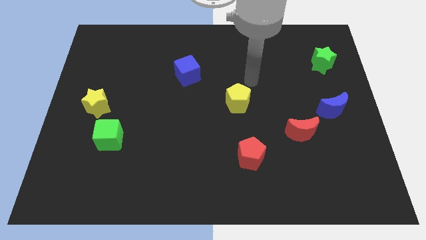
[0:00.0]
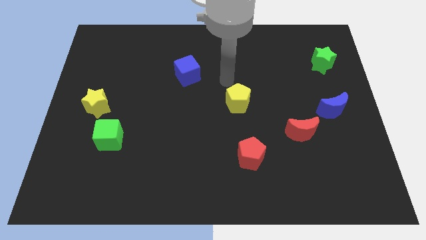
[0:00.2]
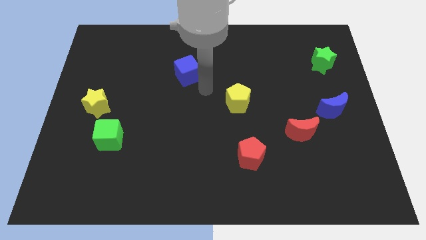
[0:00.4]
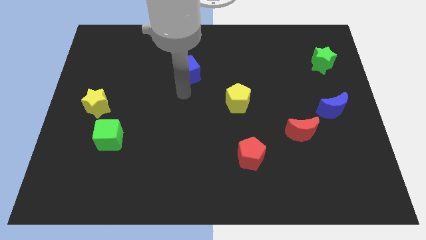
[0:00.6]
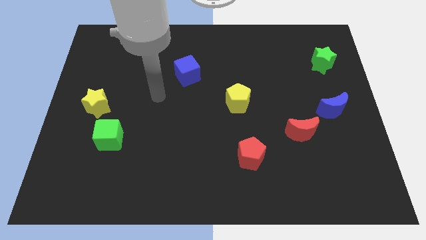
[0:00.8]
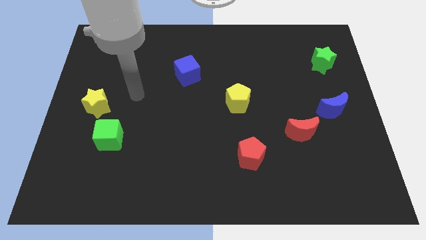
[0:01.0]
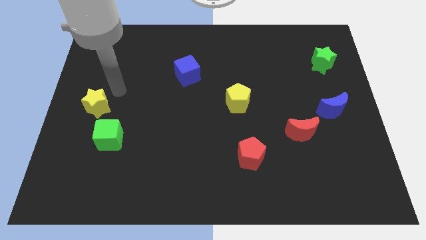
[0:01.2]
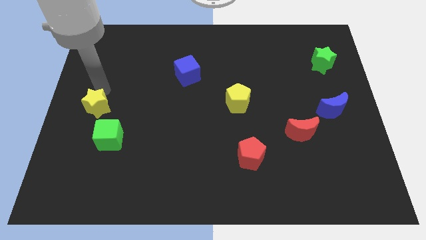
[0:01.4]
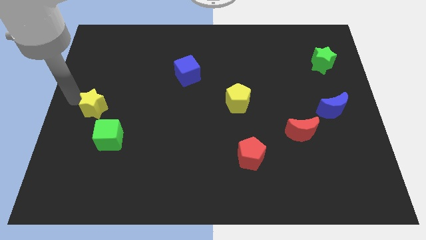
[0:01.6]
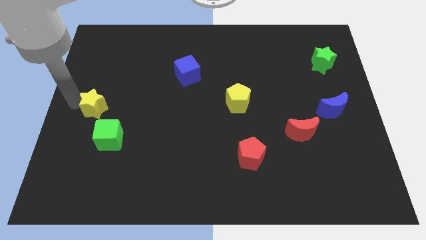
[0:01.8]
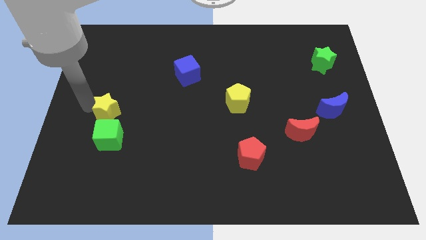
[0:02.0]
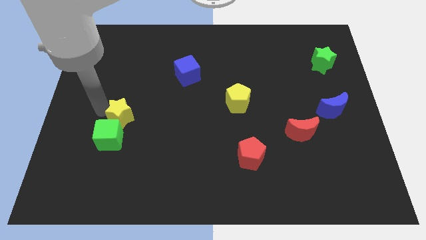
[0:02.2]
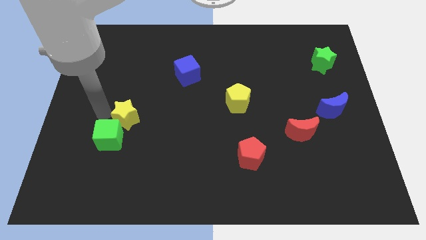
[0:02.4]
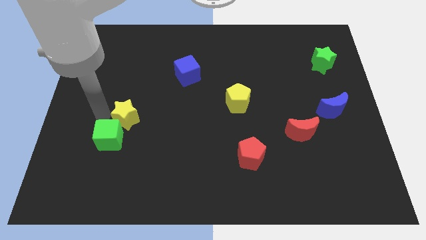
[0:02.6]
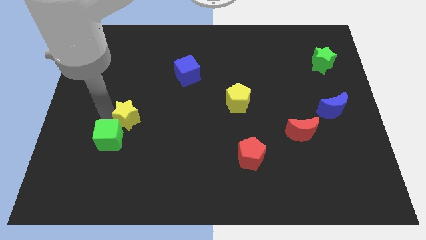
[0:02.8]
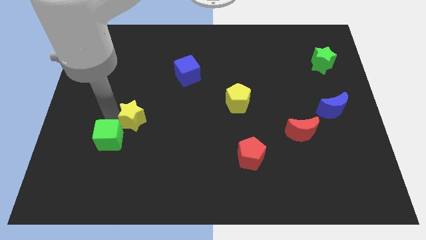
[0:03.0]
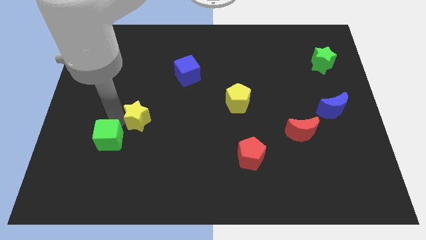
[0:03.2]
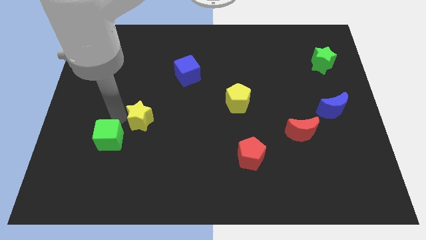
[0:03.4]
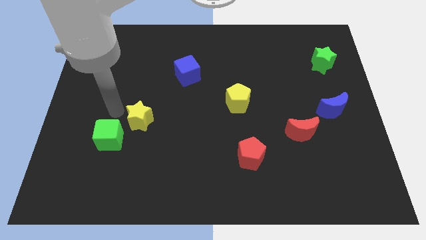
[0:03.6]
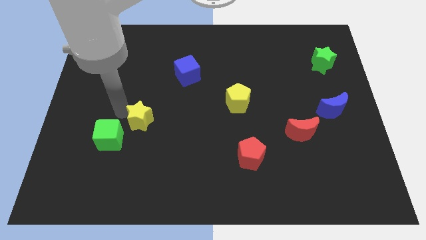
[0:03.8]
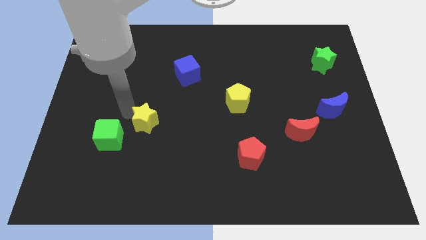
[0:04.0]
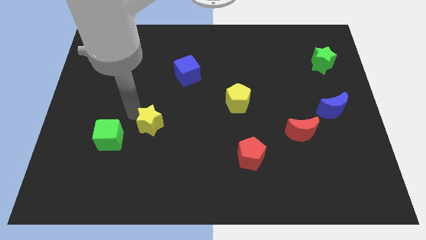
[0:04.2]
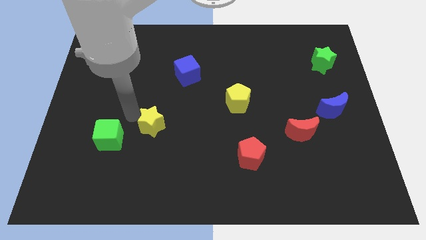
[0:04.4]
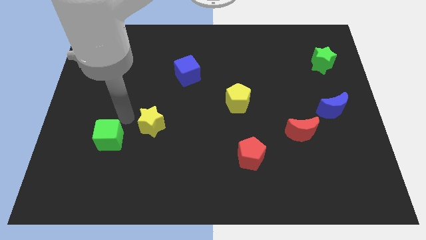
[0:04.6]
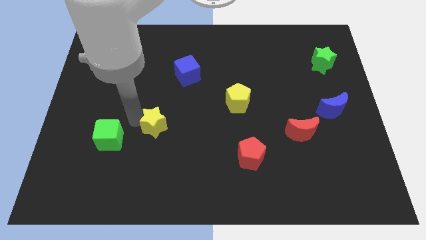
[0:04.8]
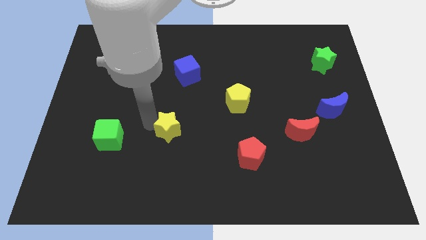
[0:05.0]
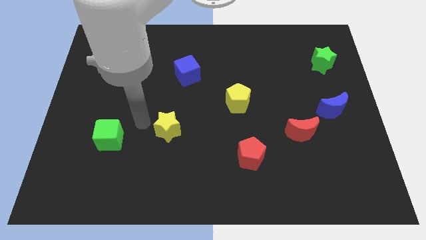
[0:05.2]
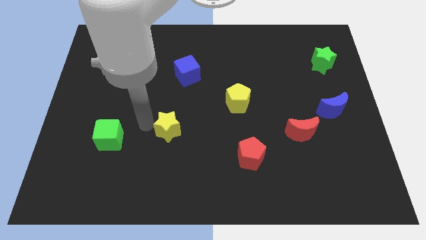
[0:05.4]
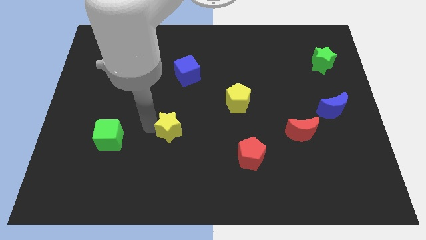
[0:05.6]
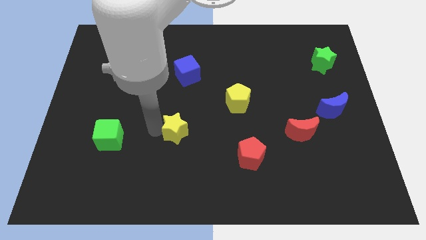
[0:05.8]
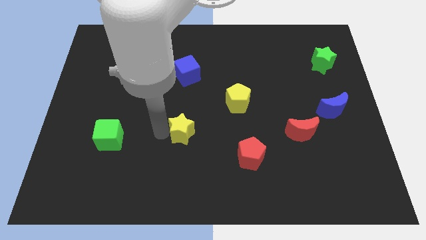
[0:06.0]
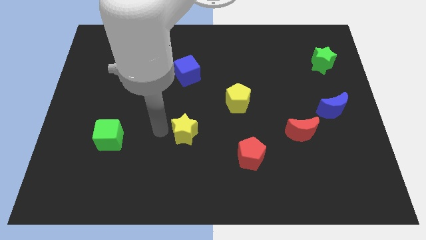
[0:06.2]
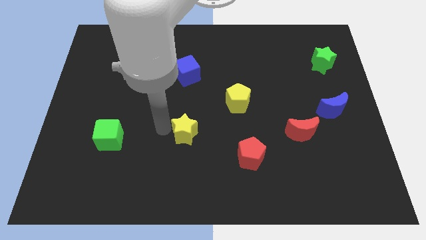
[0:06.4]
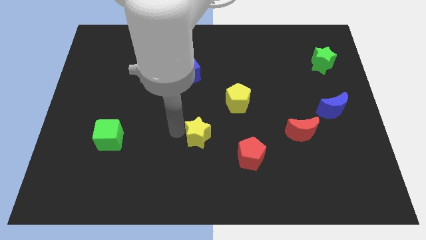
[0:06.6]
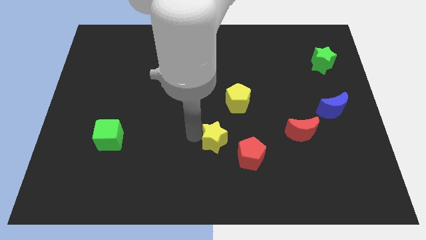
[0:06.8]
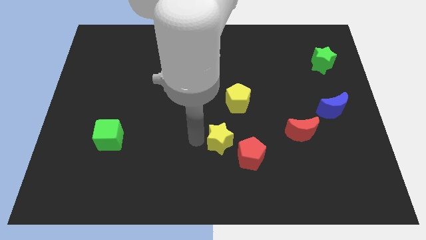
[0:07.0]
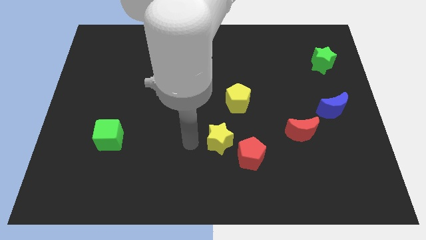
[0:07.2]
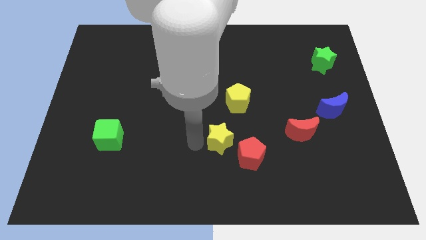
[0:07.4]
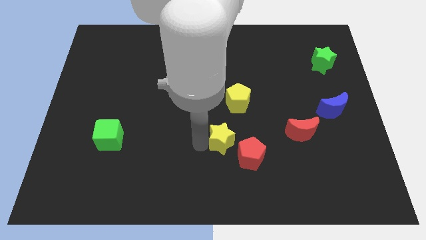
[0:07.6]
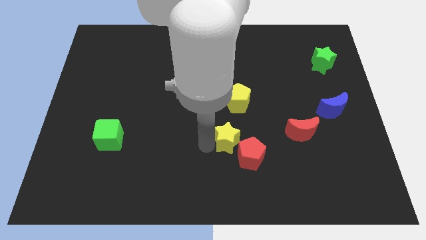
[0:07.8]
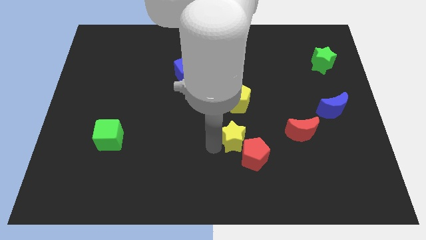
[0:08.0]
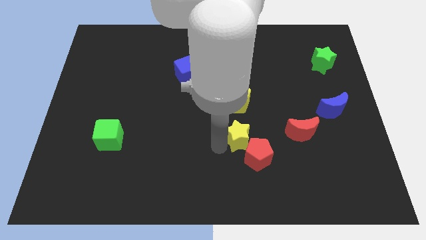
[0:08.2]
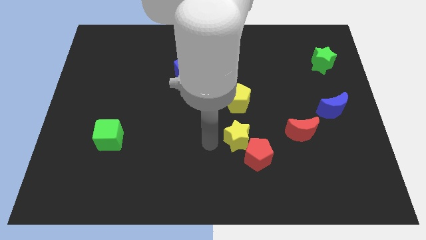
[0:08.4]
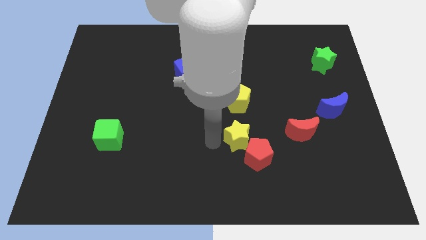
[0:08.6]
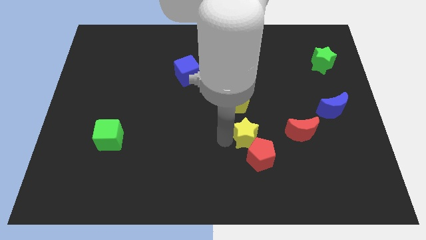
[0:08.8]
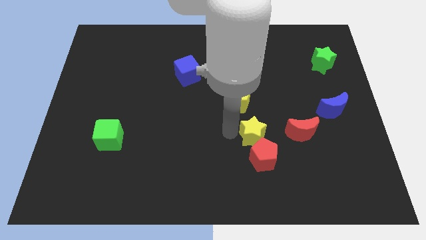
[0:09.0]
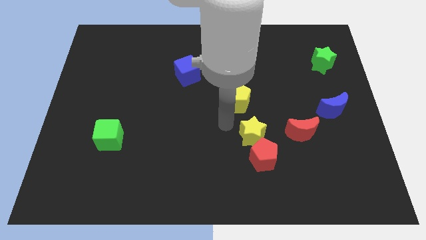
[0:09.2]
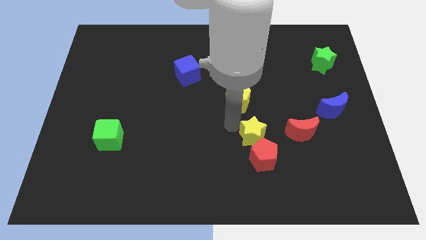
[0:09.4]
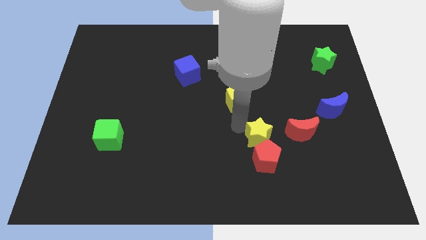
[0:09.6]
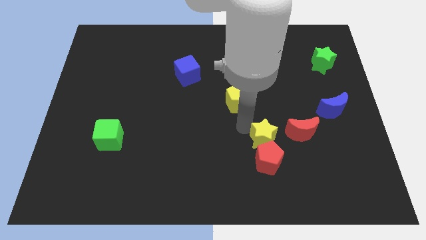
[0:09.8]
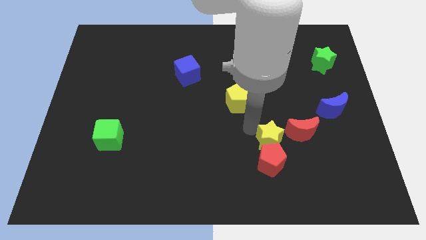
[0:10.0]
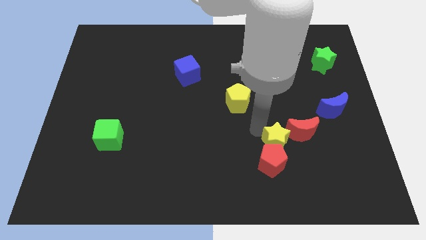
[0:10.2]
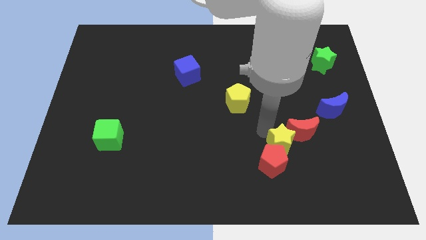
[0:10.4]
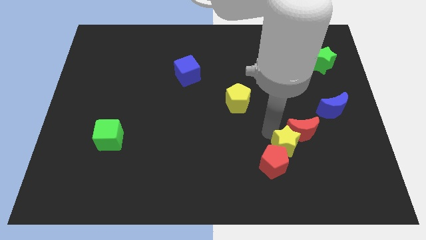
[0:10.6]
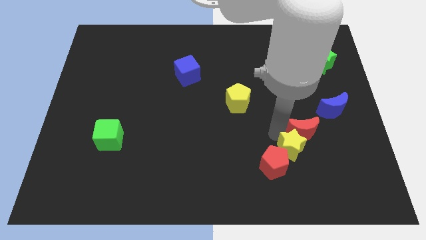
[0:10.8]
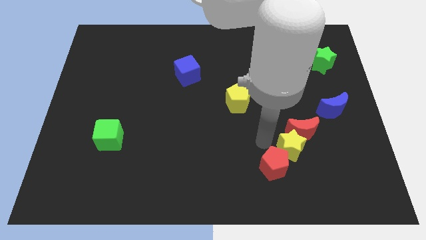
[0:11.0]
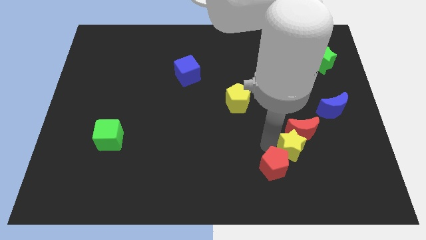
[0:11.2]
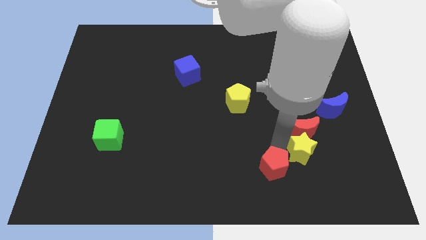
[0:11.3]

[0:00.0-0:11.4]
put the yellow star diagonally down and to the right of the red moon

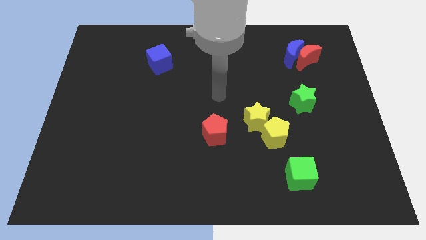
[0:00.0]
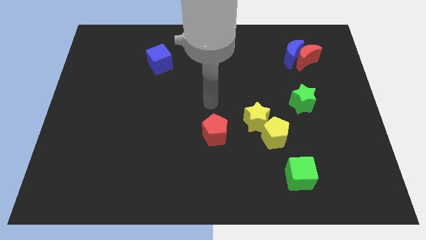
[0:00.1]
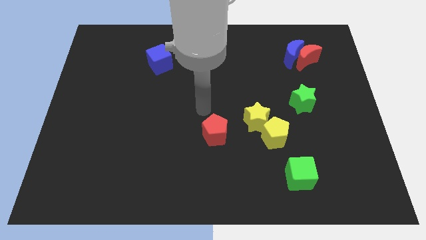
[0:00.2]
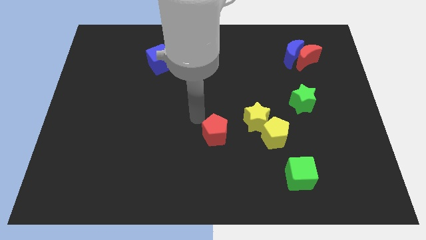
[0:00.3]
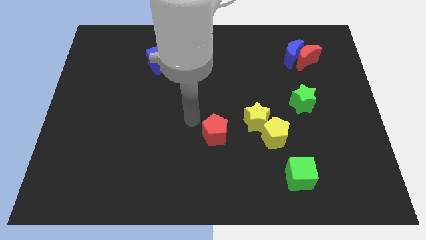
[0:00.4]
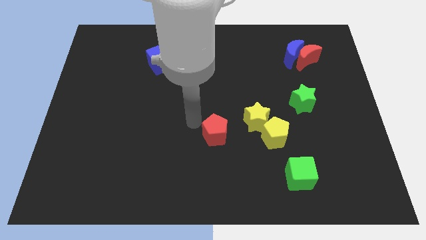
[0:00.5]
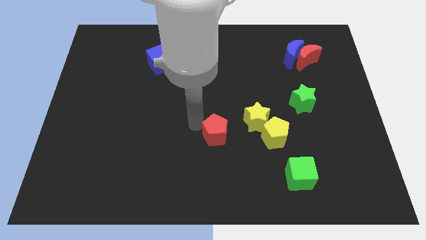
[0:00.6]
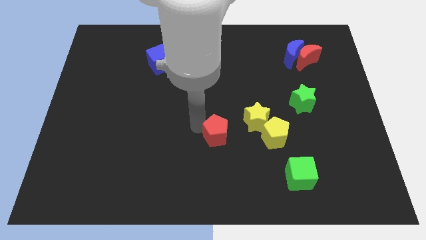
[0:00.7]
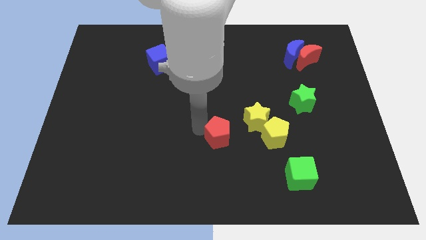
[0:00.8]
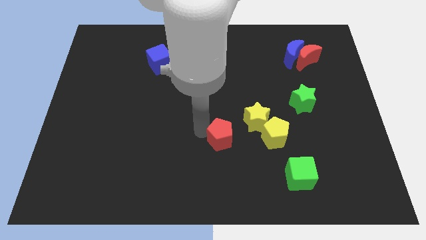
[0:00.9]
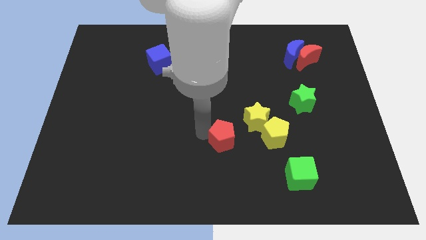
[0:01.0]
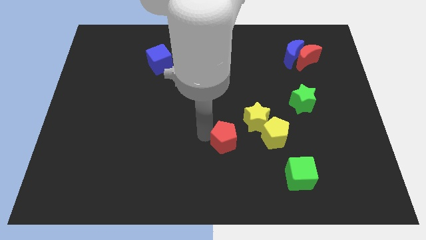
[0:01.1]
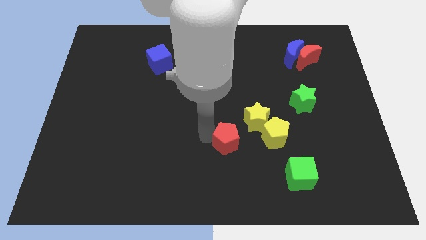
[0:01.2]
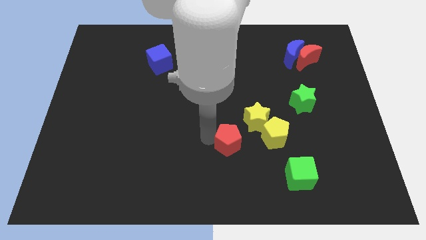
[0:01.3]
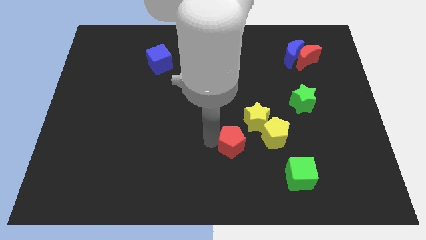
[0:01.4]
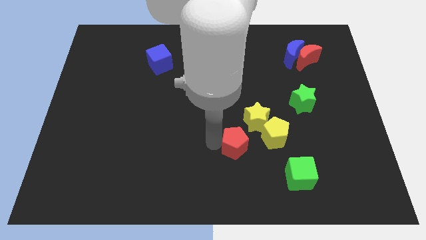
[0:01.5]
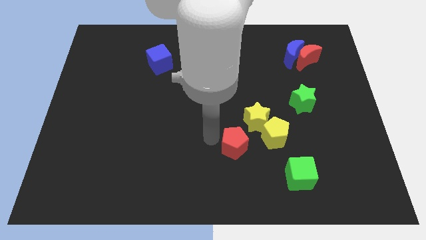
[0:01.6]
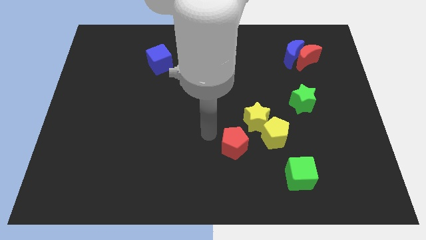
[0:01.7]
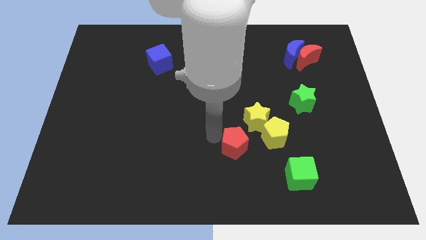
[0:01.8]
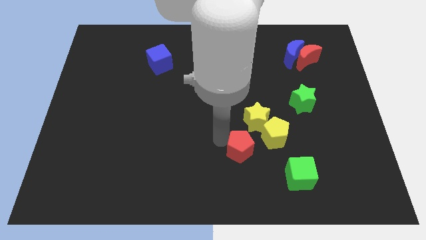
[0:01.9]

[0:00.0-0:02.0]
put the red pentagon below the yellow star

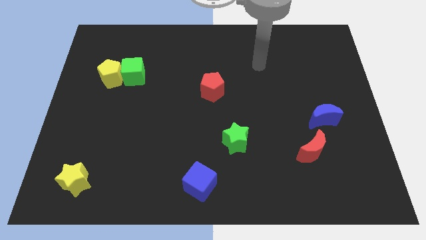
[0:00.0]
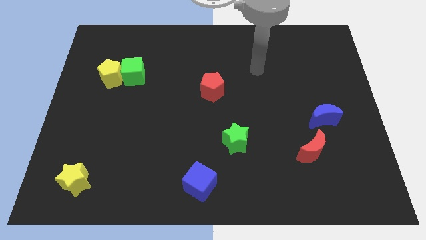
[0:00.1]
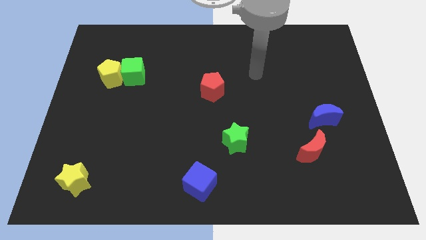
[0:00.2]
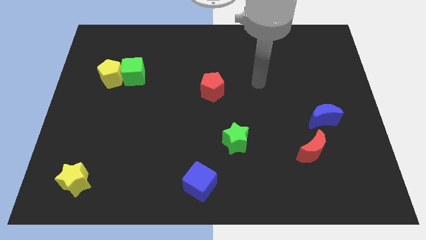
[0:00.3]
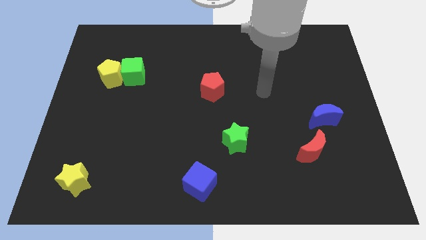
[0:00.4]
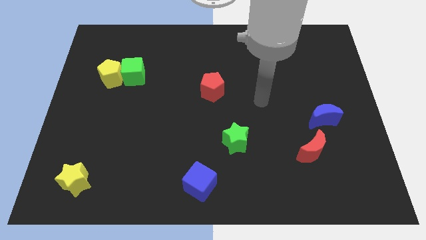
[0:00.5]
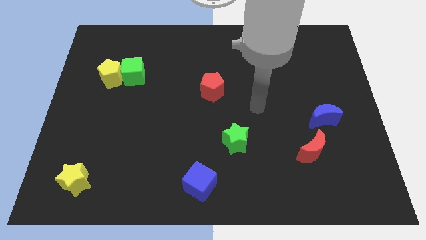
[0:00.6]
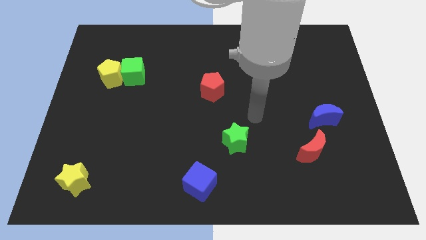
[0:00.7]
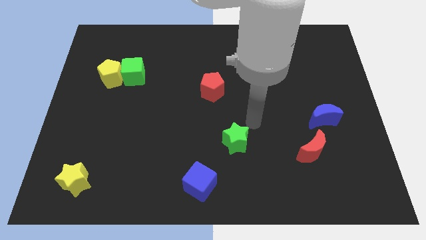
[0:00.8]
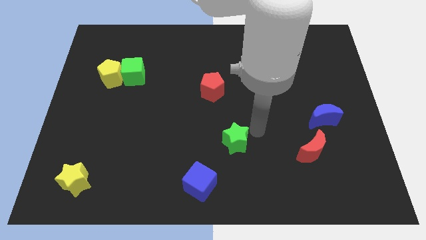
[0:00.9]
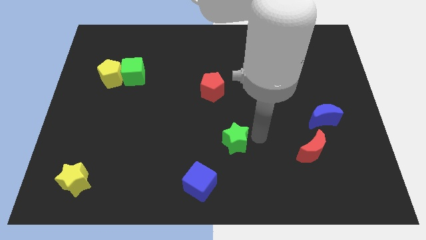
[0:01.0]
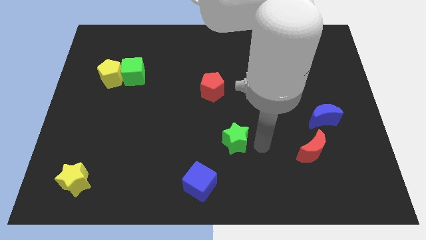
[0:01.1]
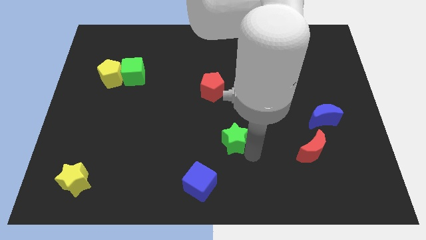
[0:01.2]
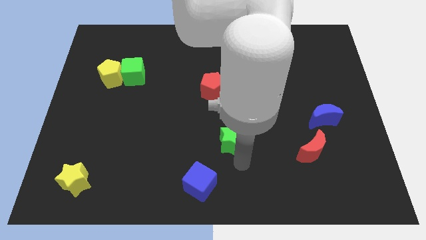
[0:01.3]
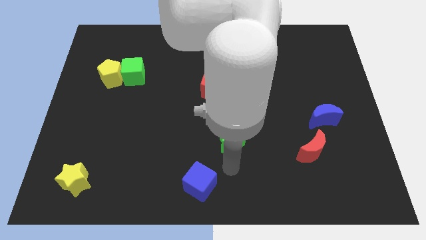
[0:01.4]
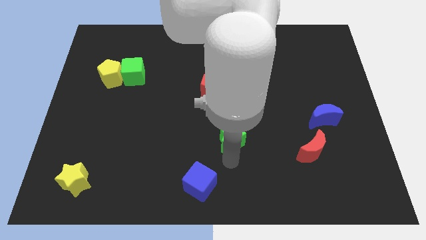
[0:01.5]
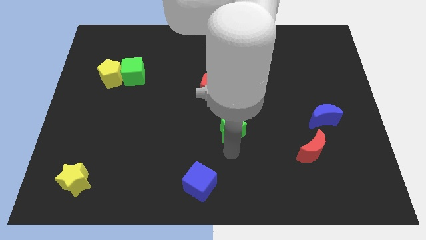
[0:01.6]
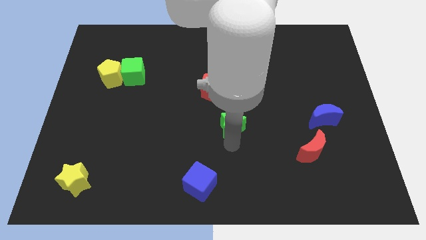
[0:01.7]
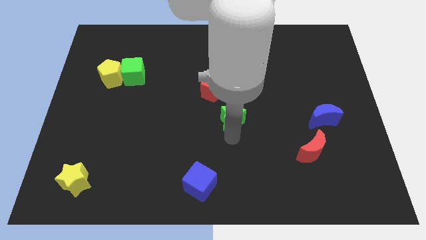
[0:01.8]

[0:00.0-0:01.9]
put the green star to the bottom right side of the red pentagon
